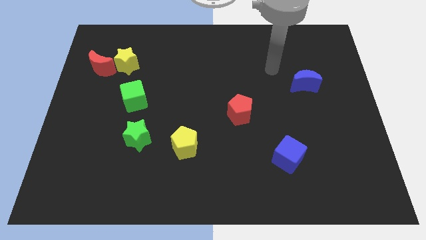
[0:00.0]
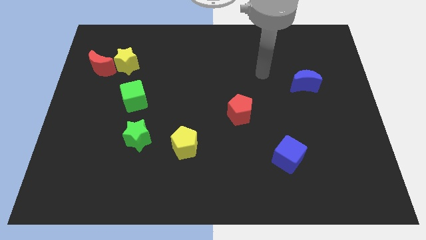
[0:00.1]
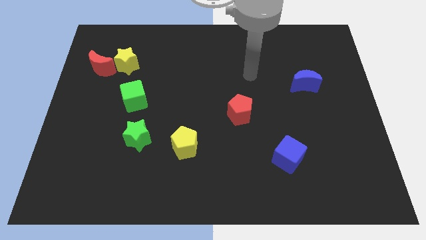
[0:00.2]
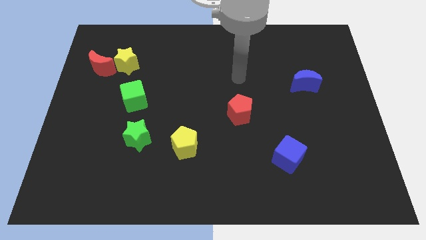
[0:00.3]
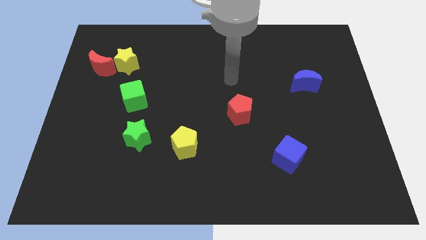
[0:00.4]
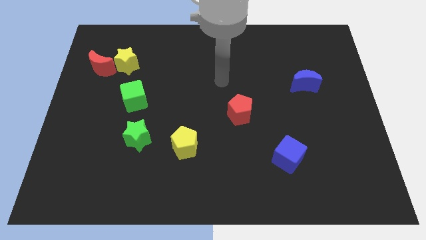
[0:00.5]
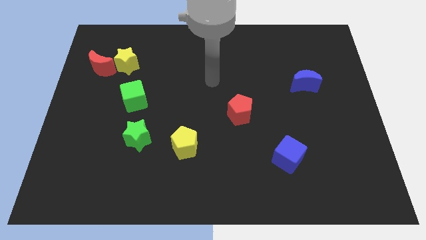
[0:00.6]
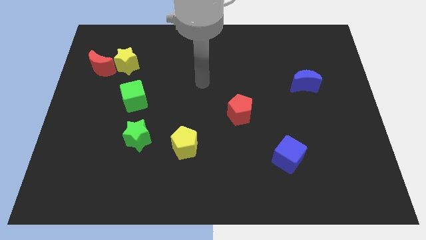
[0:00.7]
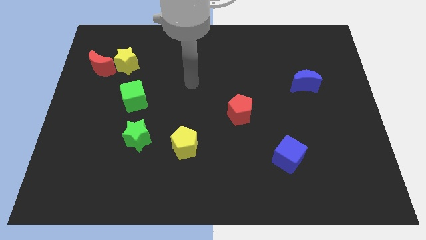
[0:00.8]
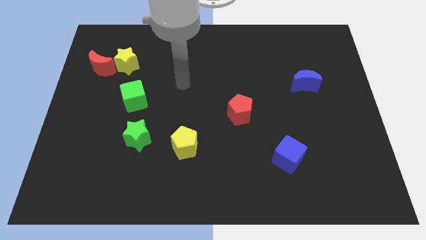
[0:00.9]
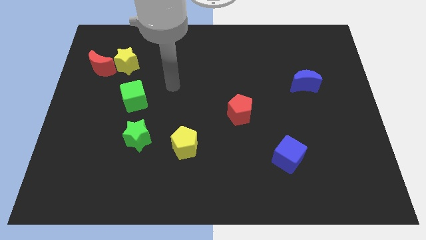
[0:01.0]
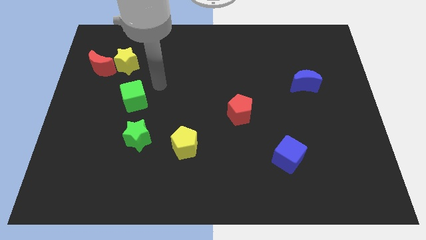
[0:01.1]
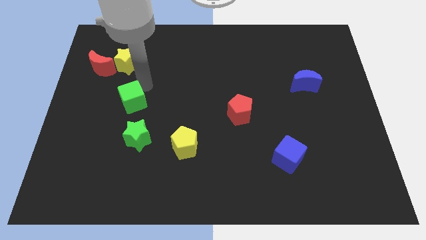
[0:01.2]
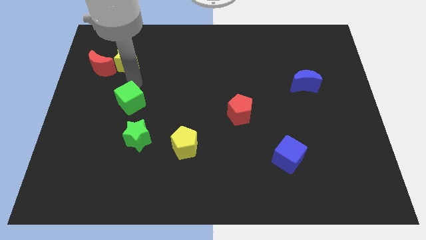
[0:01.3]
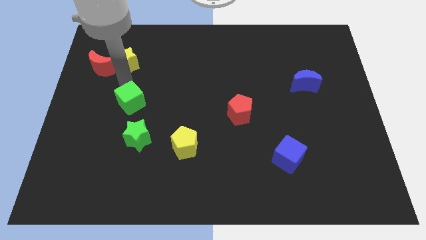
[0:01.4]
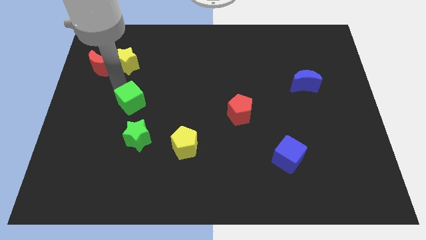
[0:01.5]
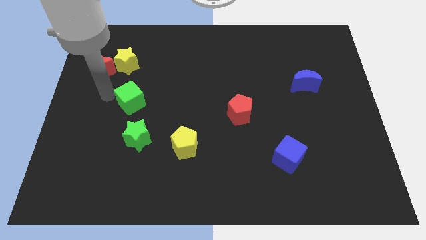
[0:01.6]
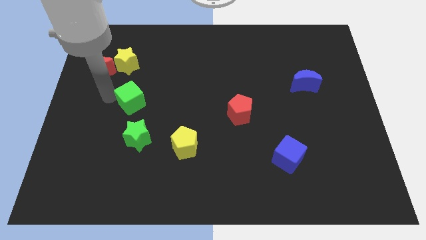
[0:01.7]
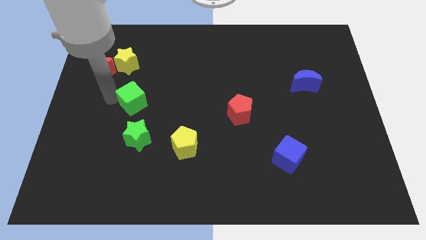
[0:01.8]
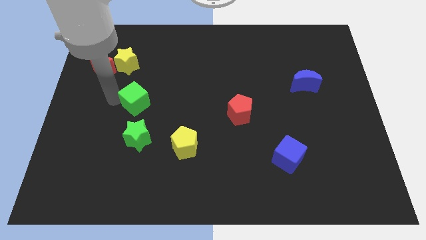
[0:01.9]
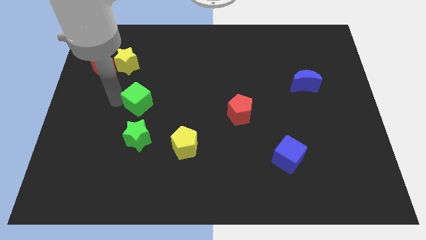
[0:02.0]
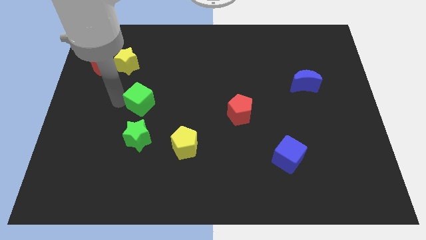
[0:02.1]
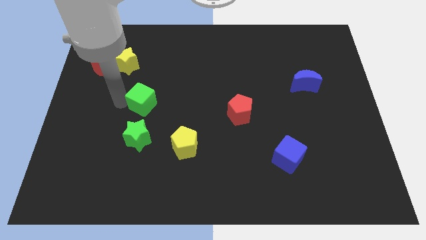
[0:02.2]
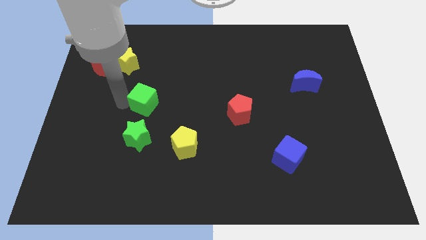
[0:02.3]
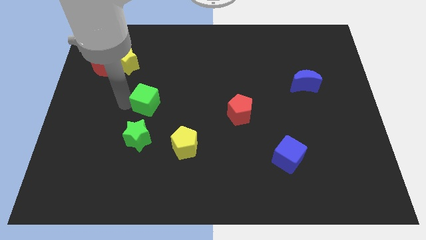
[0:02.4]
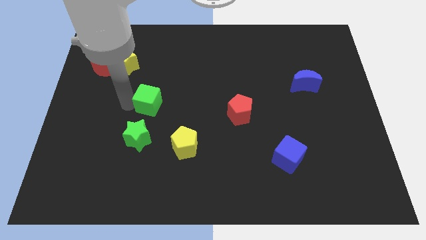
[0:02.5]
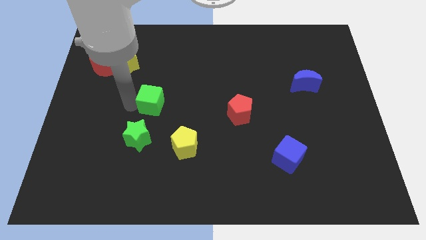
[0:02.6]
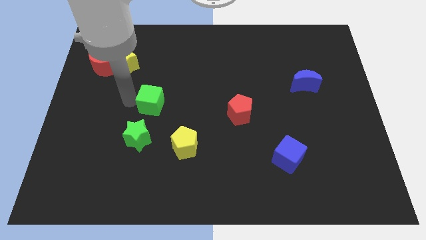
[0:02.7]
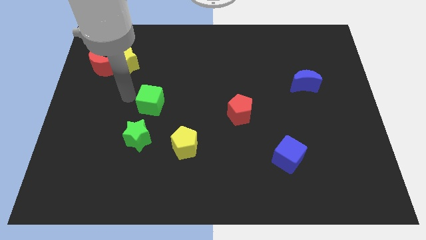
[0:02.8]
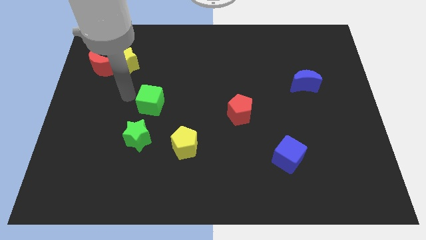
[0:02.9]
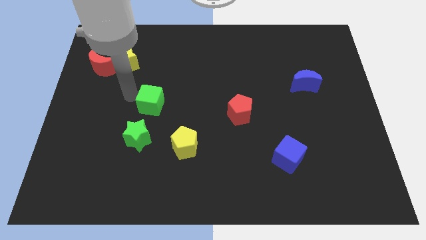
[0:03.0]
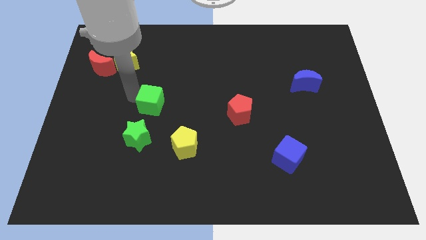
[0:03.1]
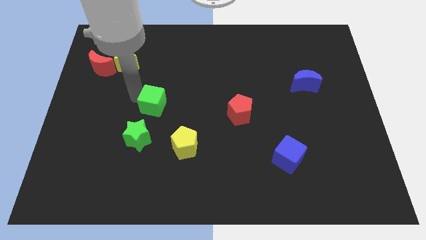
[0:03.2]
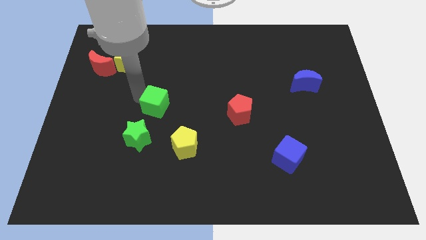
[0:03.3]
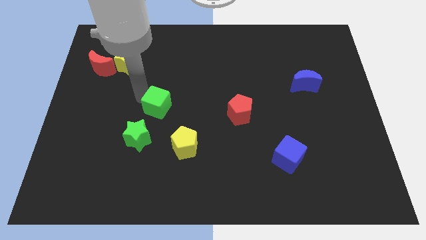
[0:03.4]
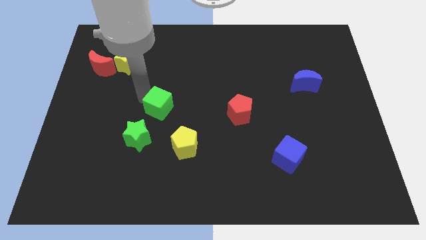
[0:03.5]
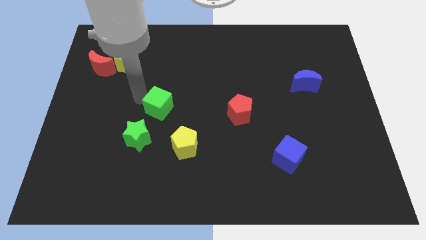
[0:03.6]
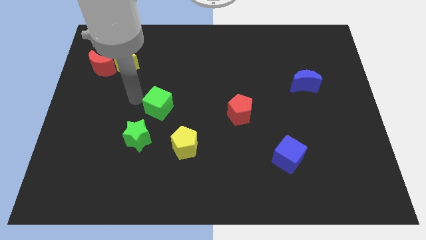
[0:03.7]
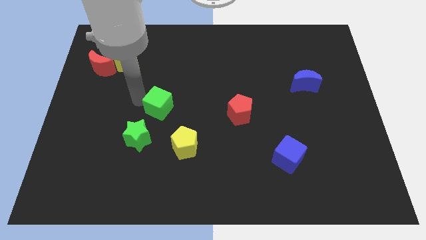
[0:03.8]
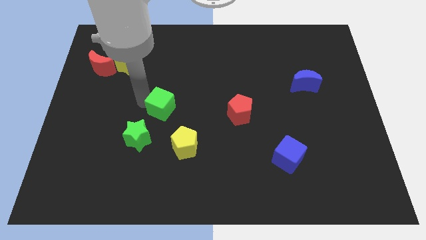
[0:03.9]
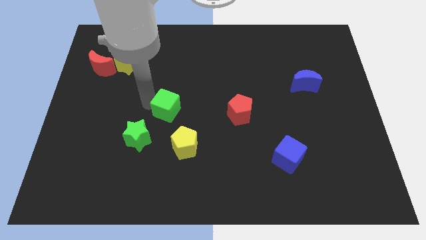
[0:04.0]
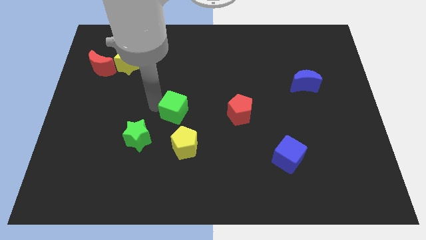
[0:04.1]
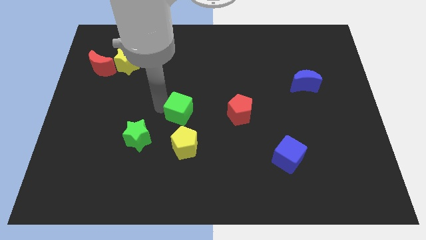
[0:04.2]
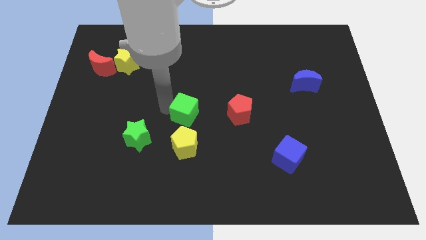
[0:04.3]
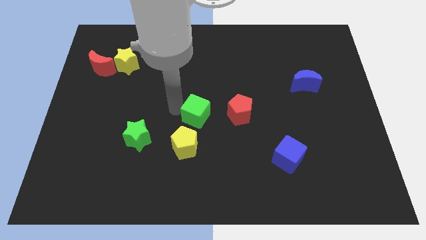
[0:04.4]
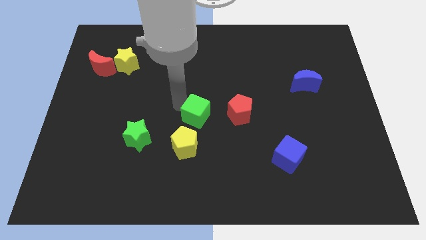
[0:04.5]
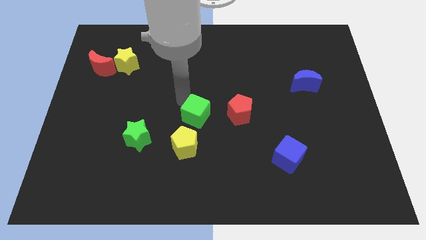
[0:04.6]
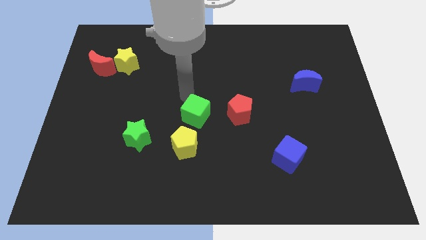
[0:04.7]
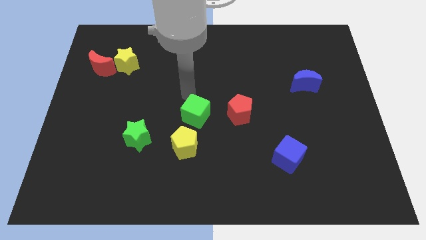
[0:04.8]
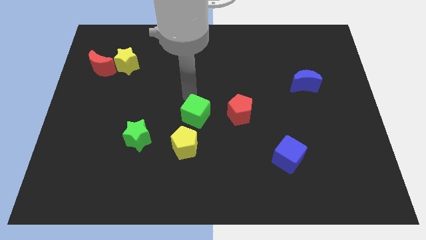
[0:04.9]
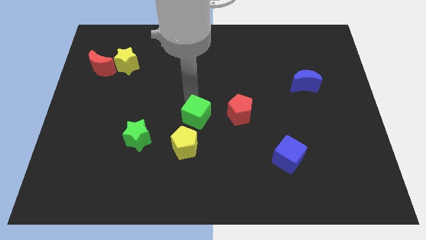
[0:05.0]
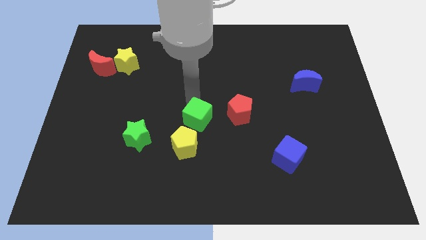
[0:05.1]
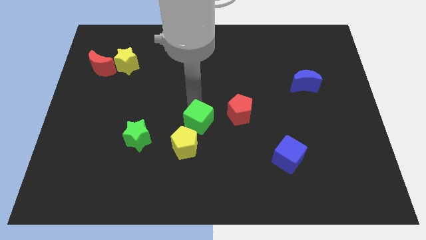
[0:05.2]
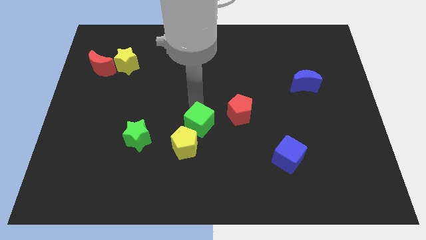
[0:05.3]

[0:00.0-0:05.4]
move the green cube just right of the green star

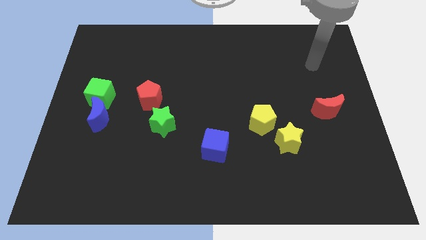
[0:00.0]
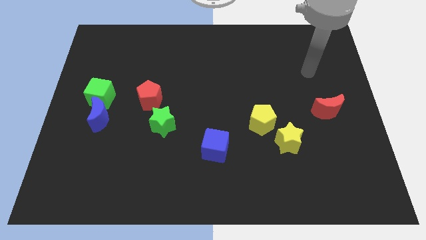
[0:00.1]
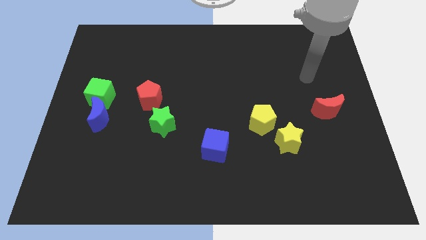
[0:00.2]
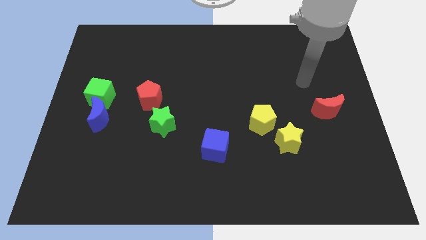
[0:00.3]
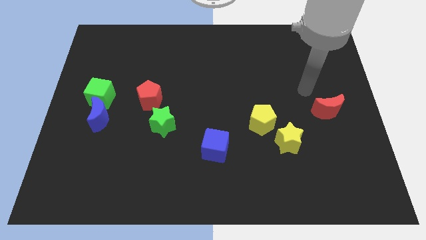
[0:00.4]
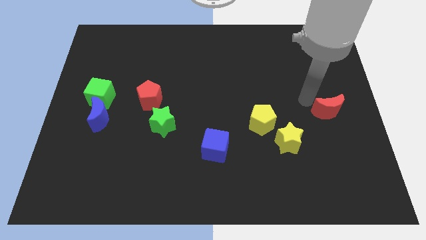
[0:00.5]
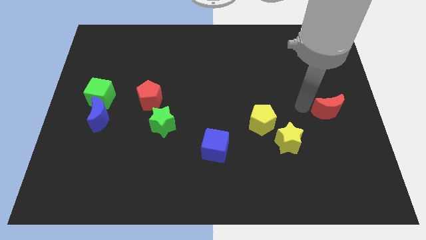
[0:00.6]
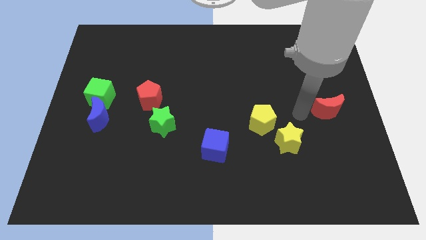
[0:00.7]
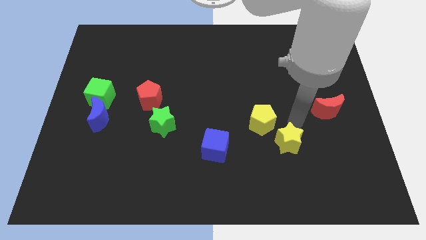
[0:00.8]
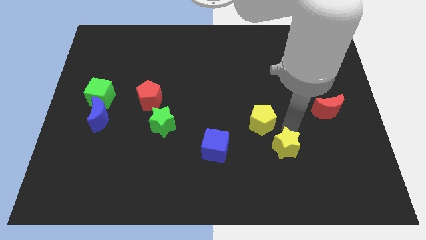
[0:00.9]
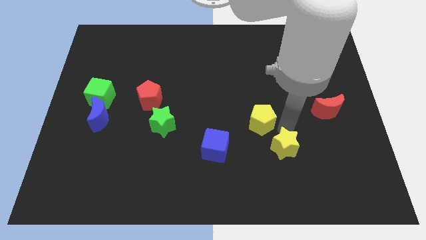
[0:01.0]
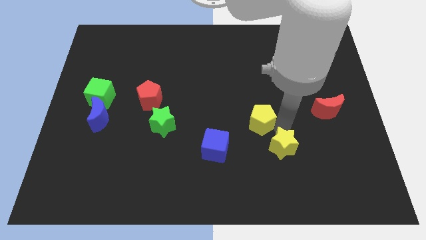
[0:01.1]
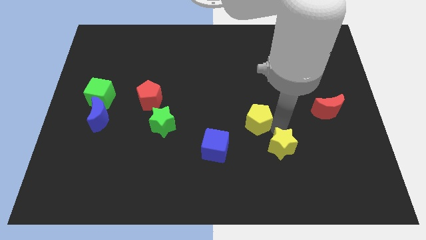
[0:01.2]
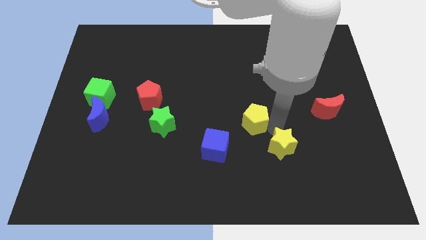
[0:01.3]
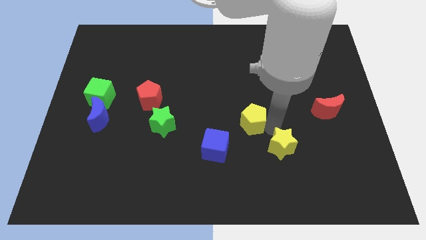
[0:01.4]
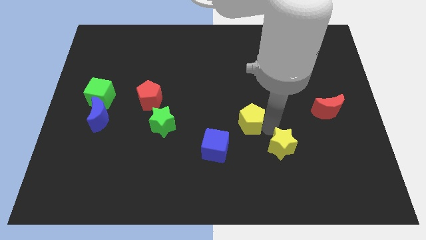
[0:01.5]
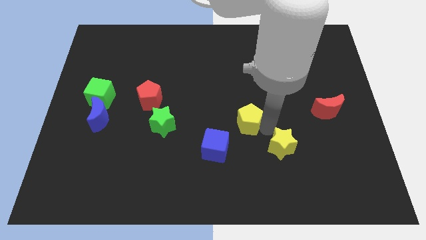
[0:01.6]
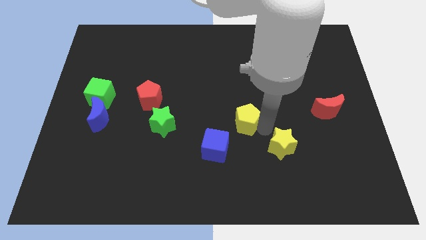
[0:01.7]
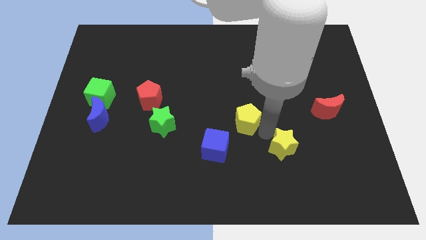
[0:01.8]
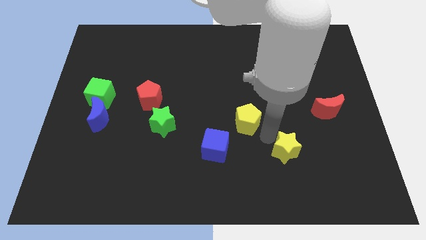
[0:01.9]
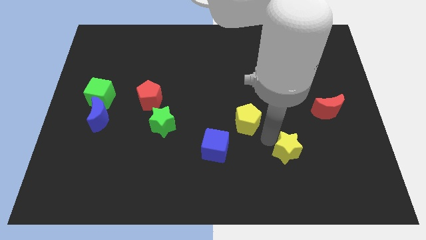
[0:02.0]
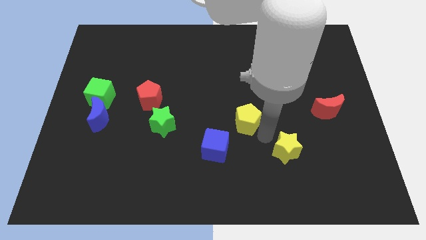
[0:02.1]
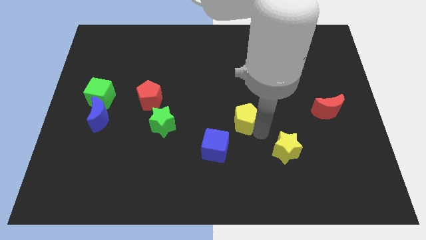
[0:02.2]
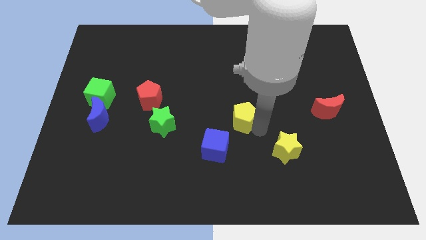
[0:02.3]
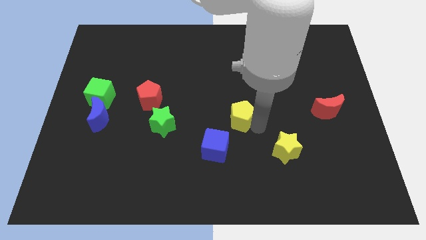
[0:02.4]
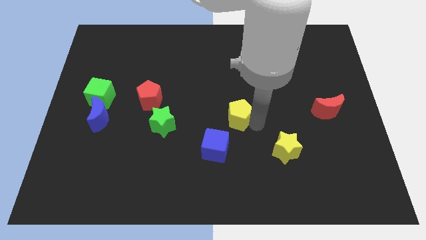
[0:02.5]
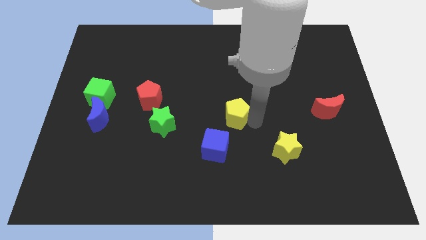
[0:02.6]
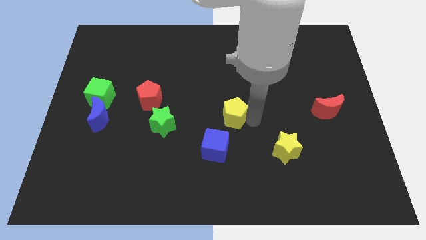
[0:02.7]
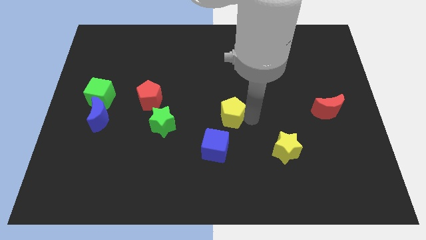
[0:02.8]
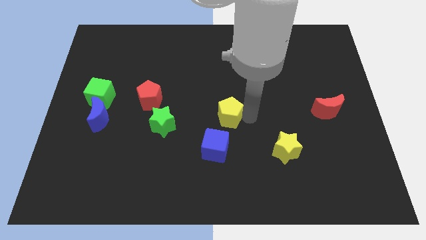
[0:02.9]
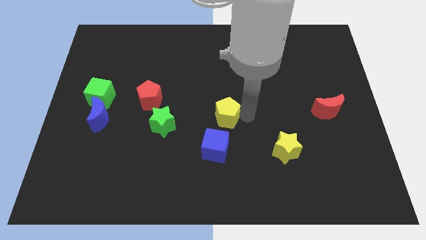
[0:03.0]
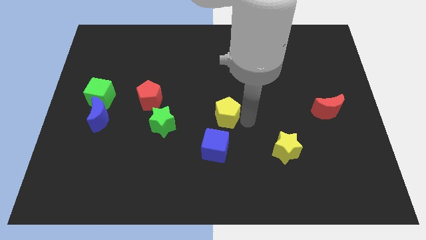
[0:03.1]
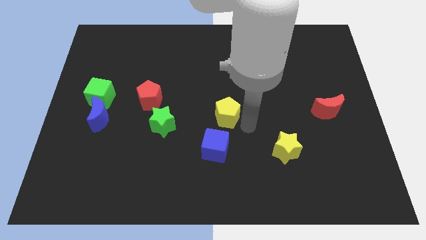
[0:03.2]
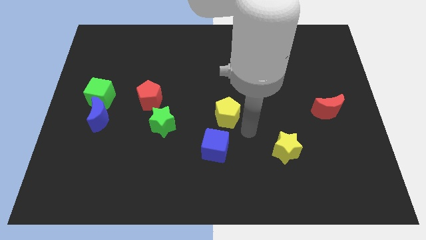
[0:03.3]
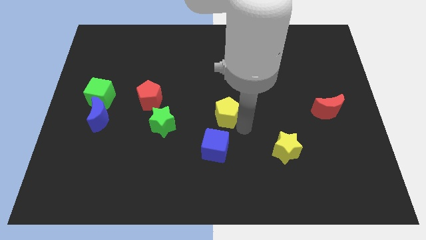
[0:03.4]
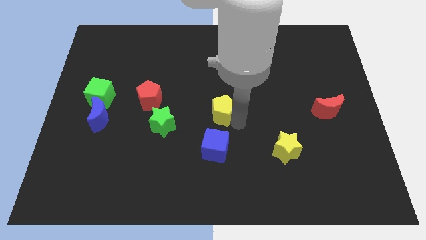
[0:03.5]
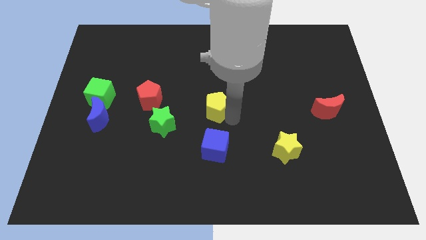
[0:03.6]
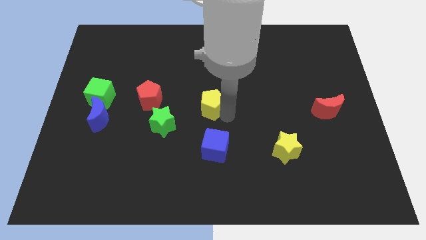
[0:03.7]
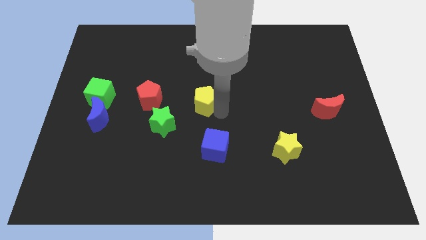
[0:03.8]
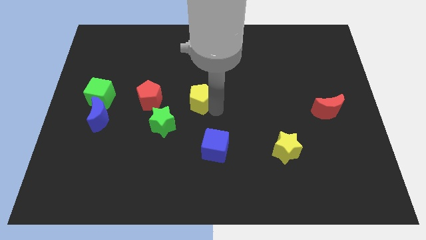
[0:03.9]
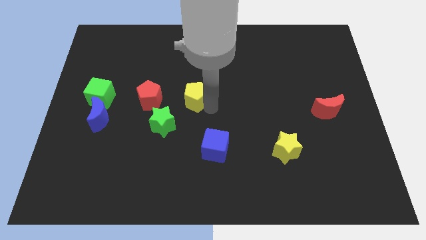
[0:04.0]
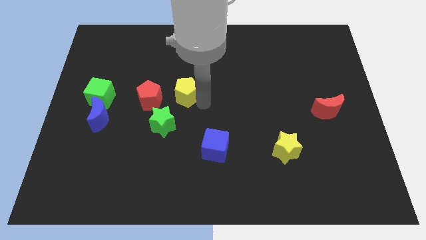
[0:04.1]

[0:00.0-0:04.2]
move the yellow pentagon diagonally up and to the right of the red pentagon
